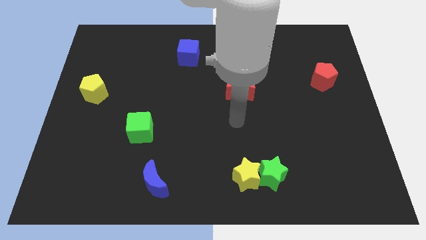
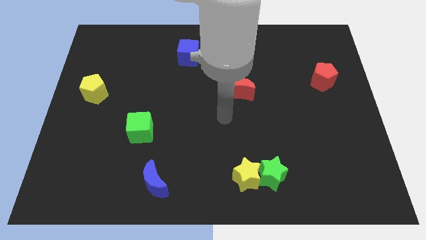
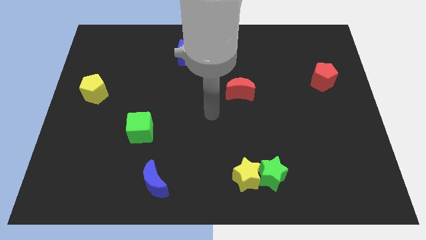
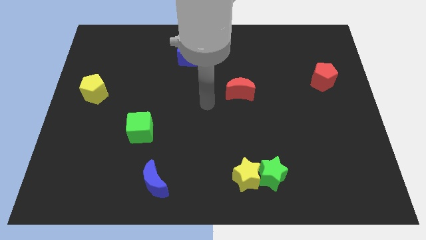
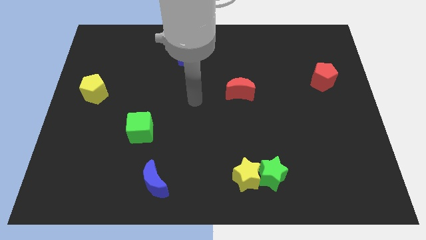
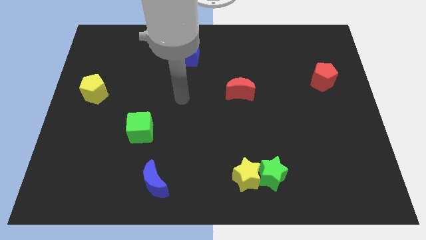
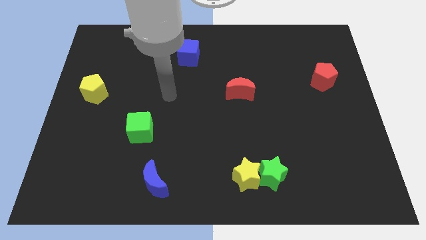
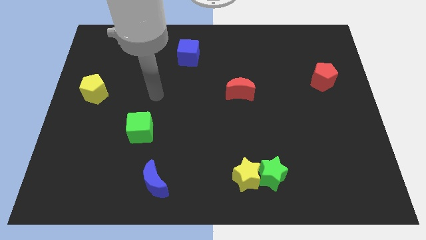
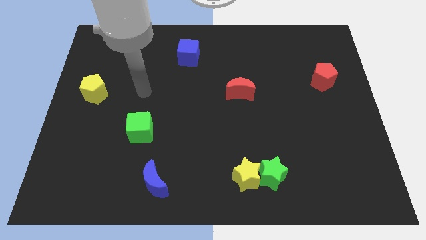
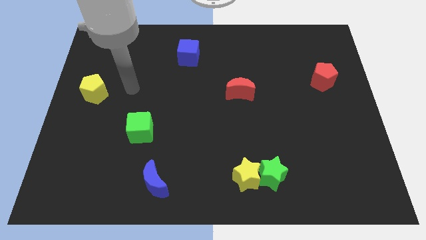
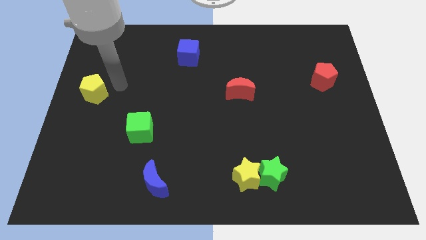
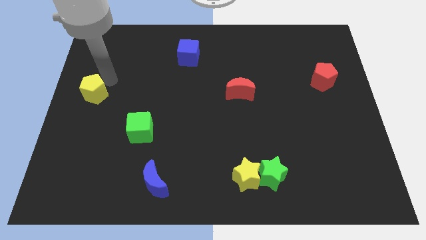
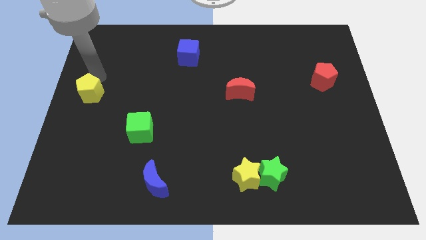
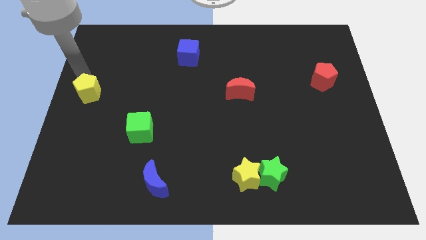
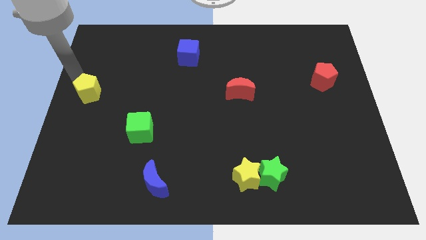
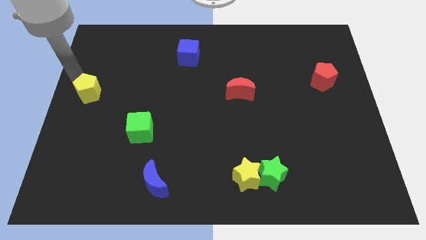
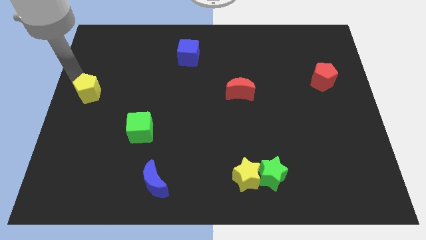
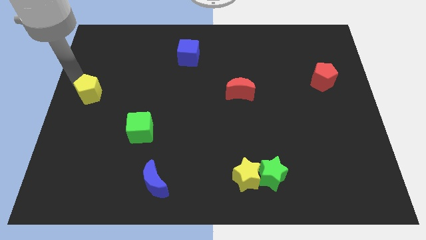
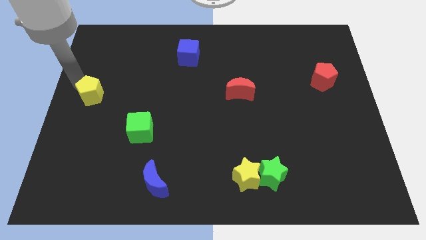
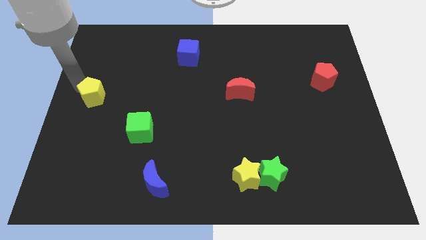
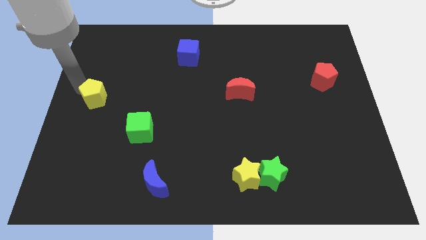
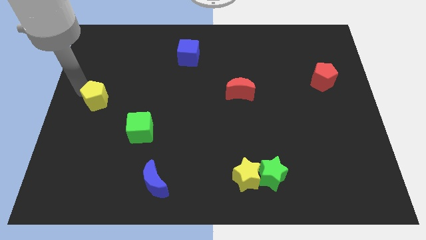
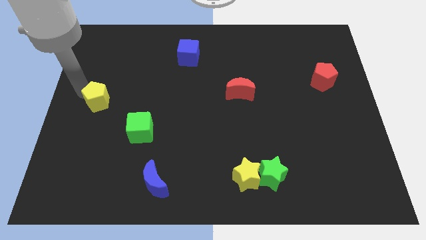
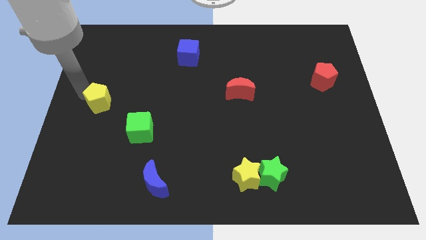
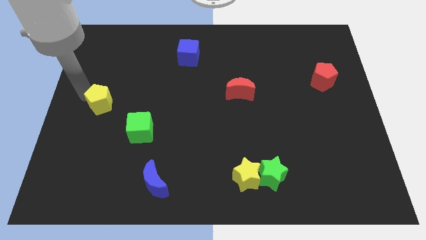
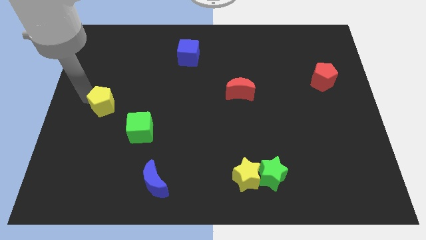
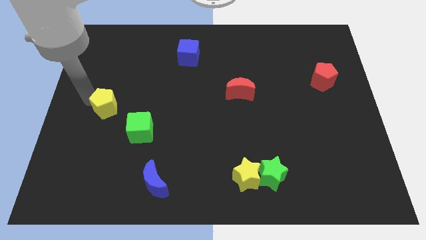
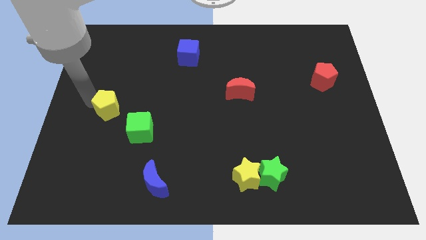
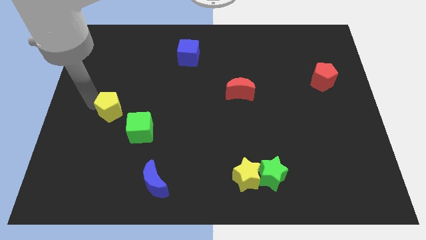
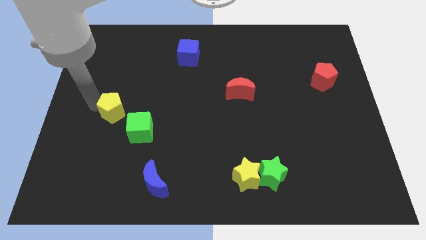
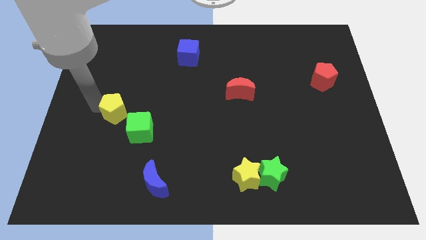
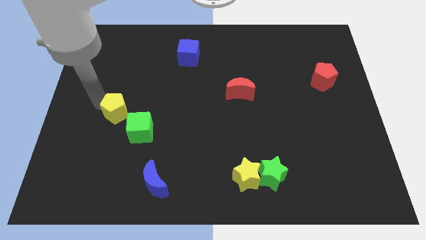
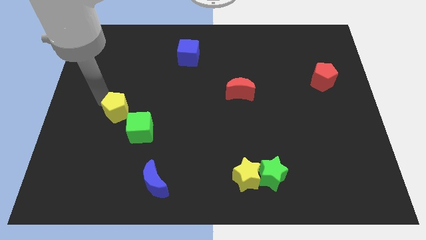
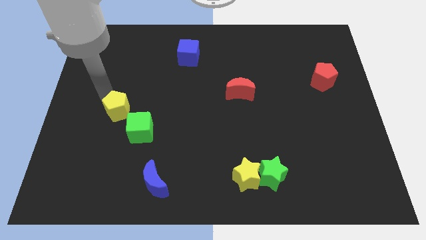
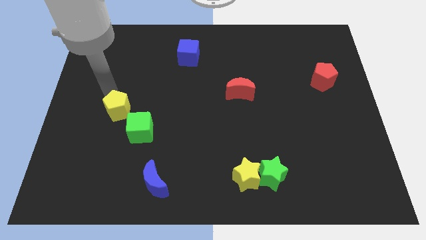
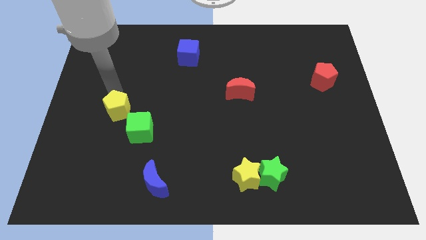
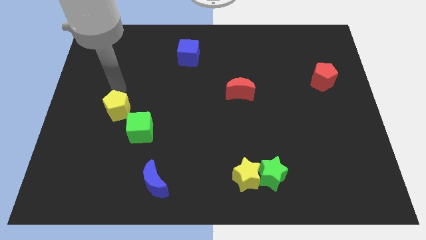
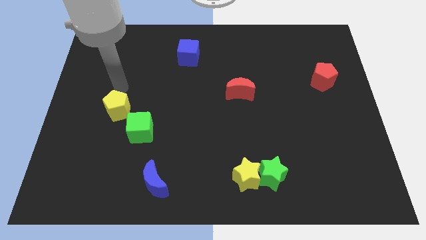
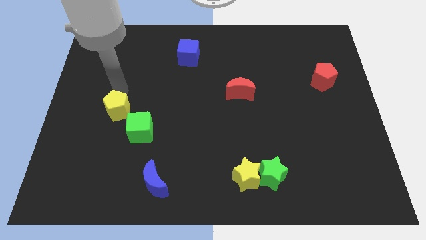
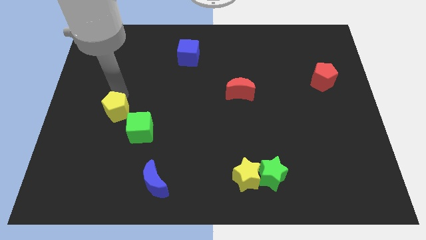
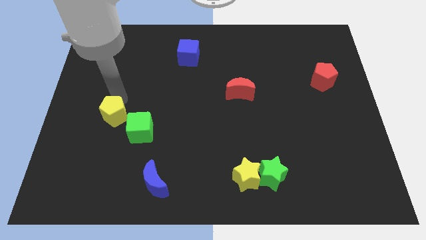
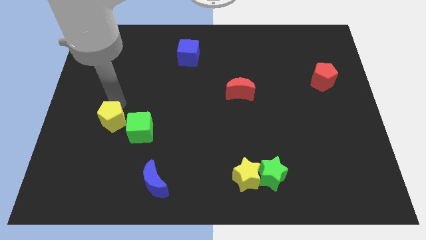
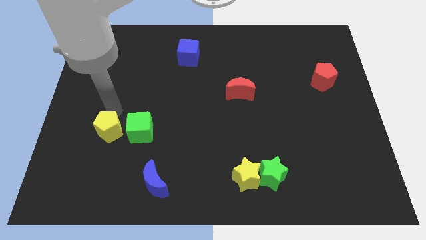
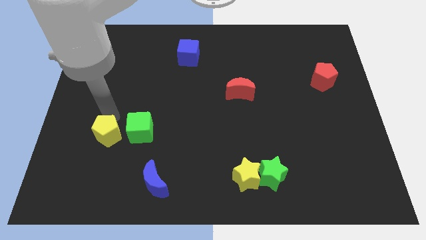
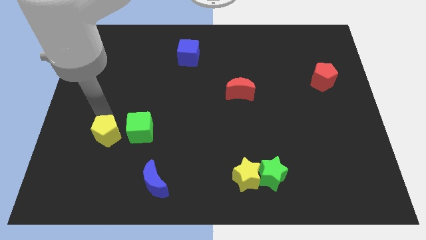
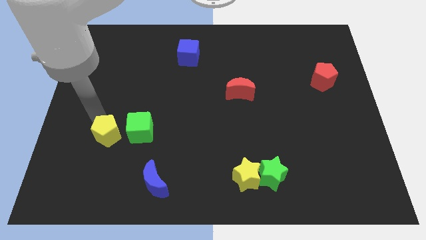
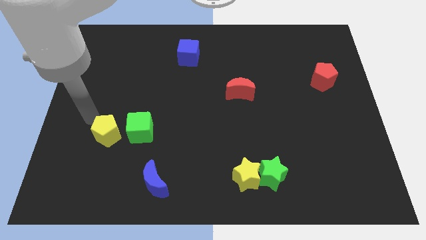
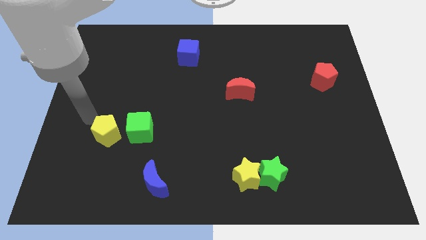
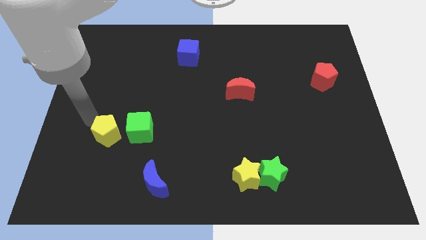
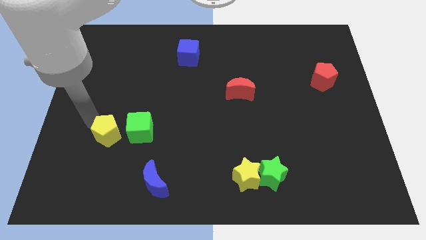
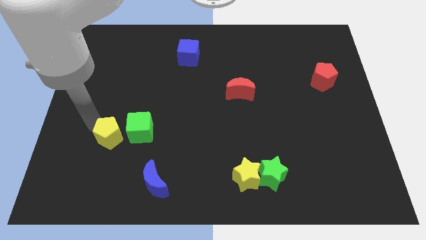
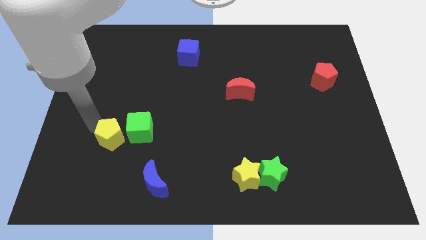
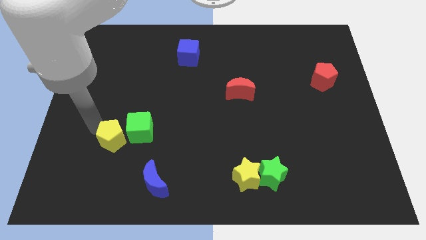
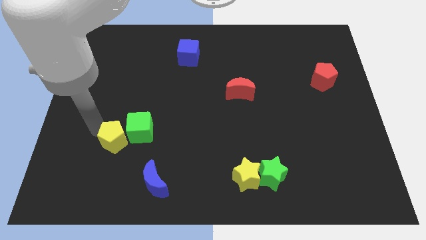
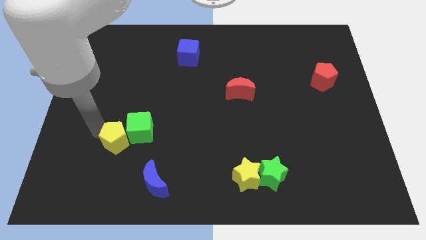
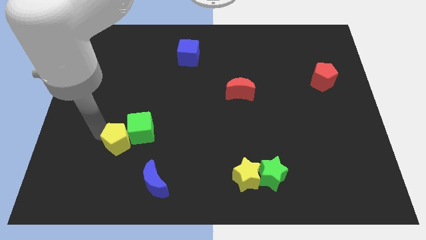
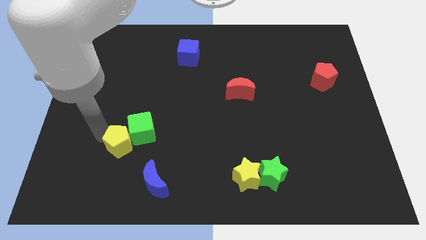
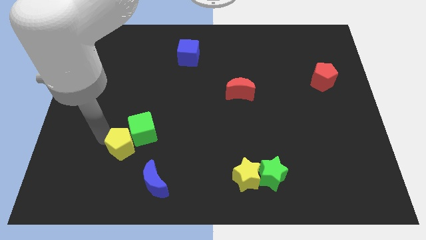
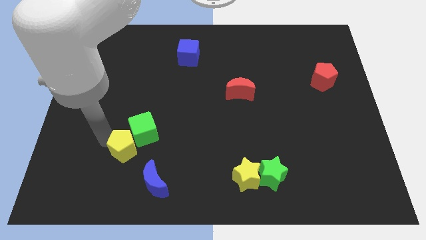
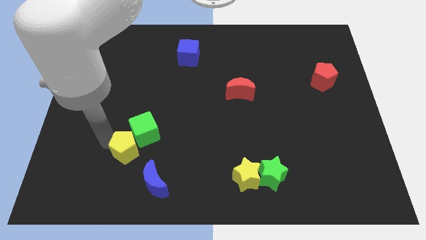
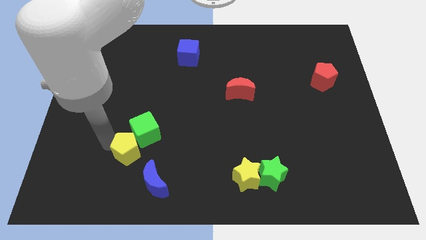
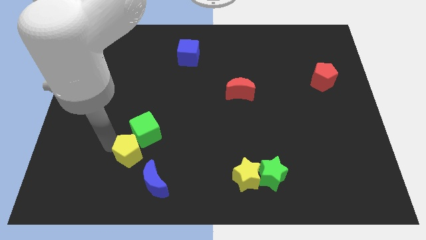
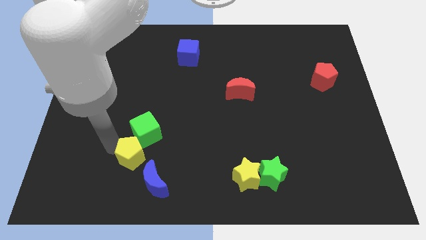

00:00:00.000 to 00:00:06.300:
move the yellow pentagon downwards and to the right diagonally

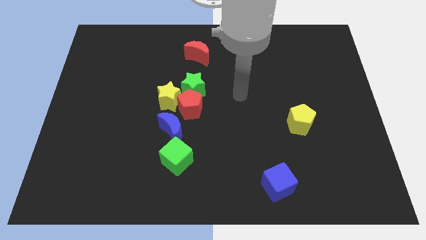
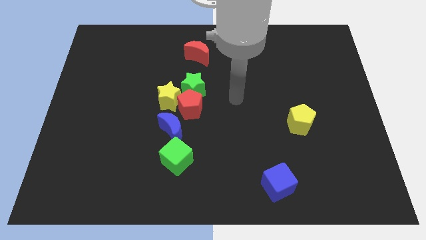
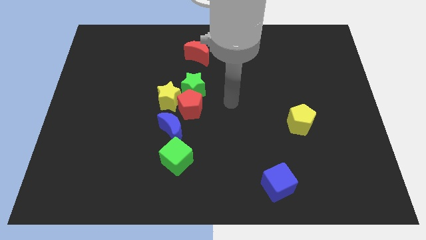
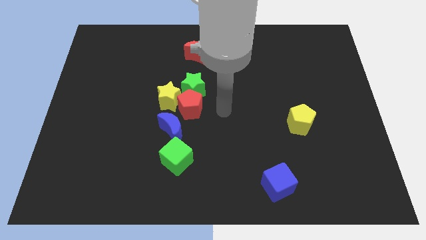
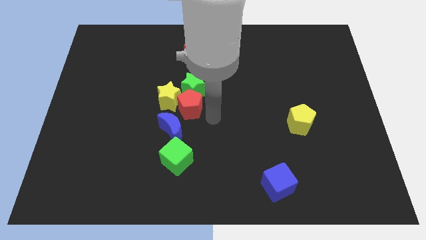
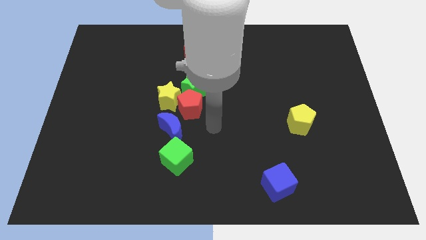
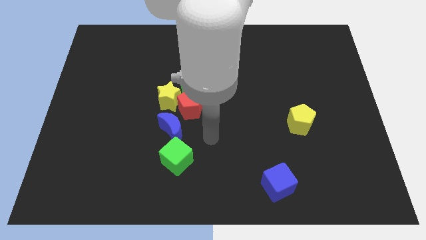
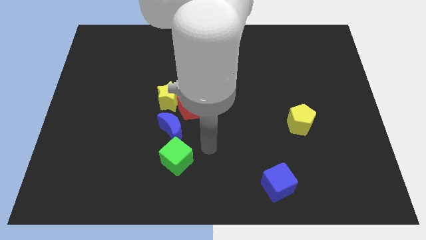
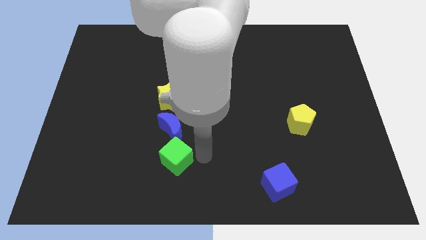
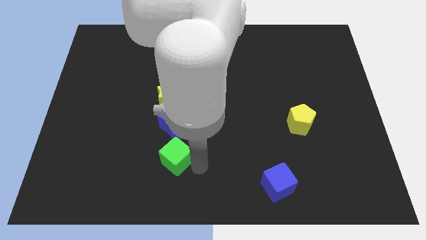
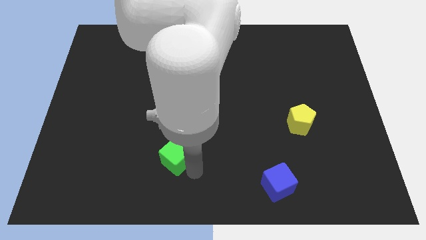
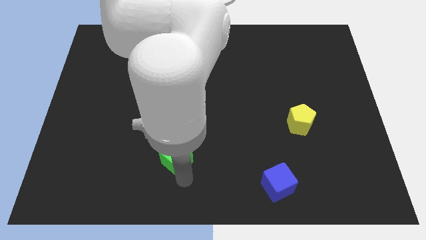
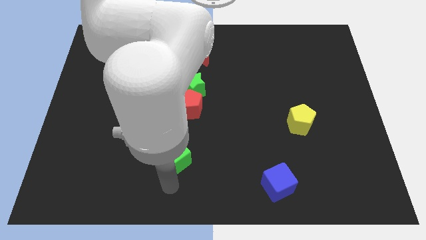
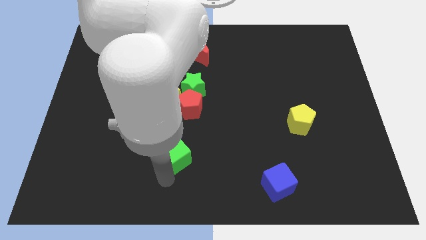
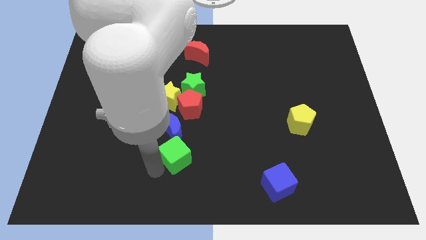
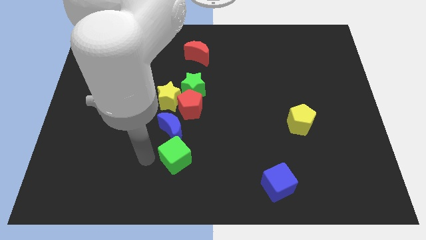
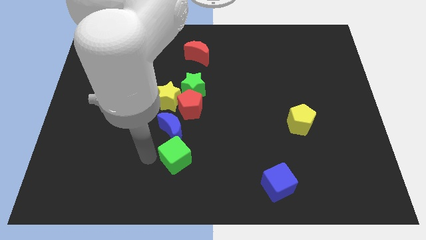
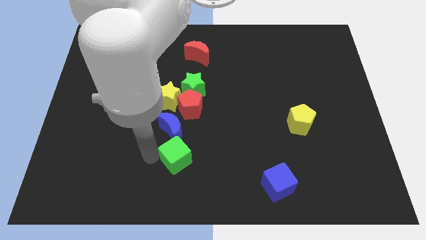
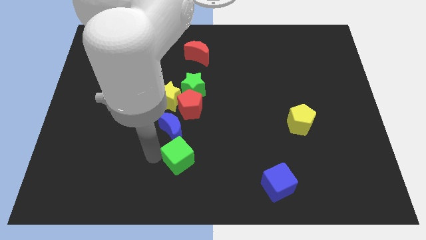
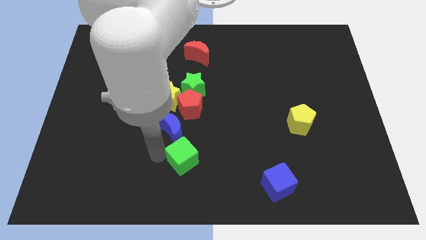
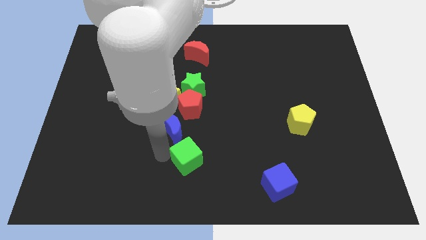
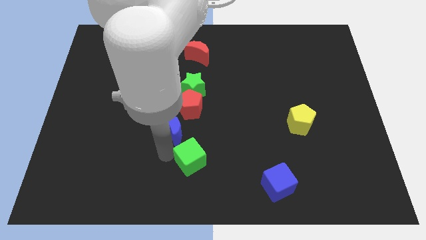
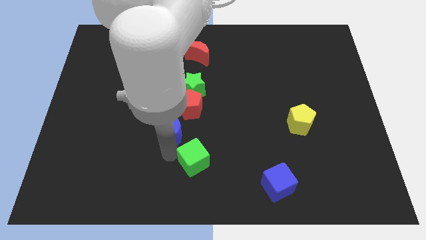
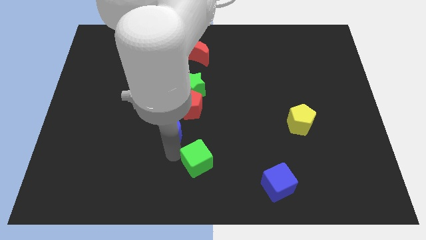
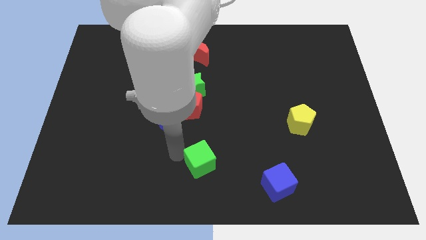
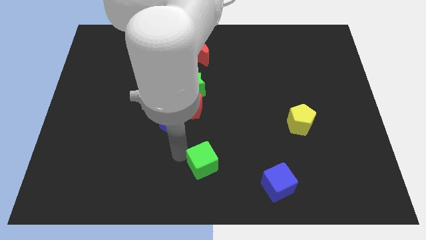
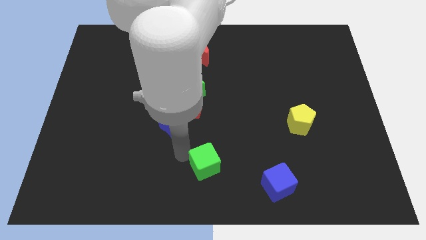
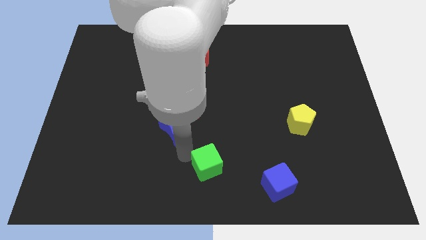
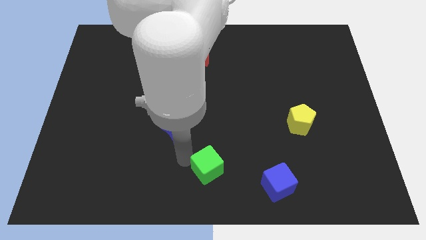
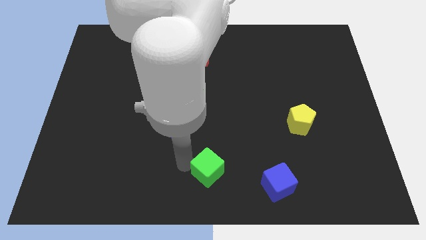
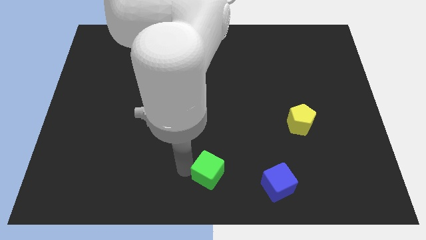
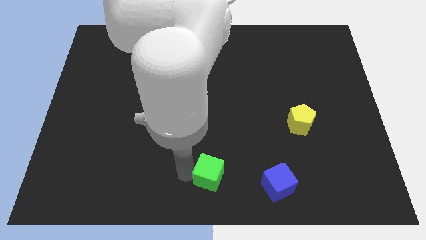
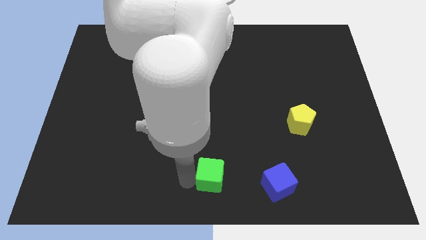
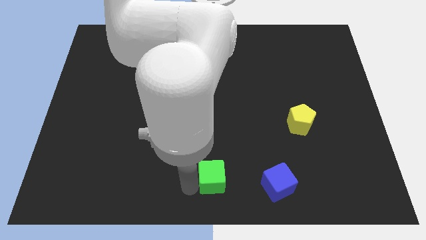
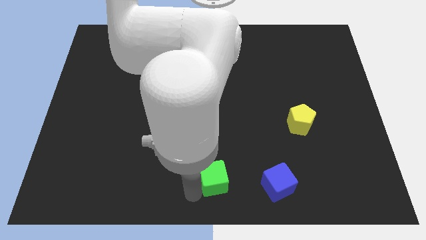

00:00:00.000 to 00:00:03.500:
slide the green cube a little right
